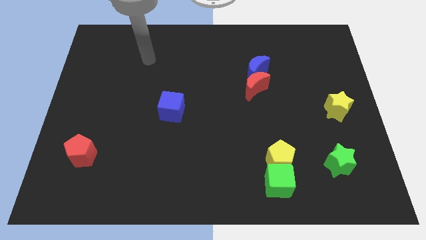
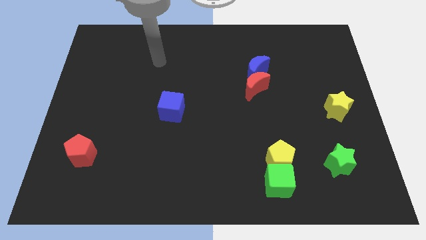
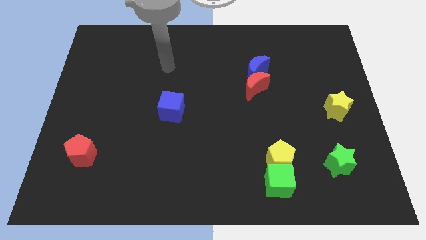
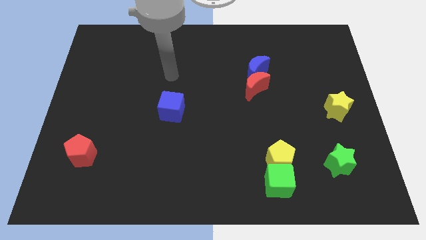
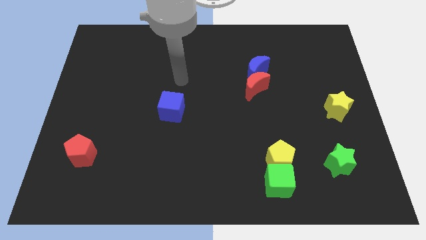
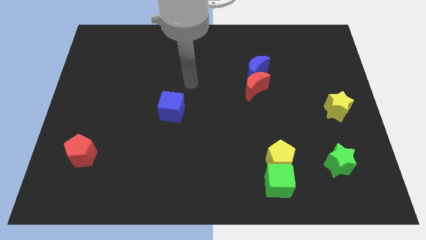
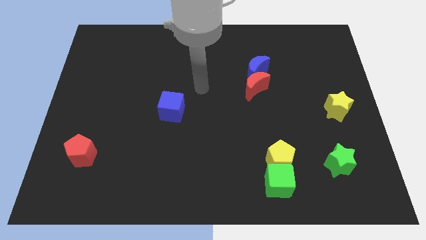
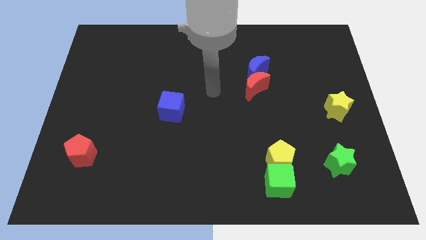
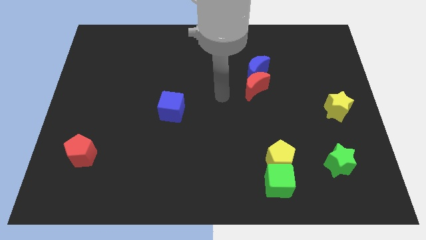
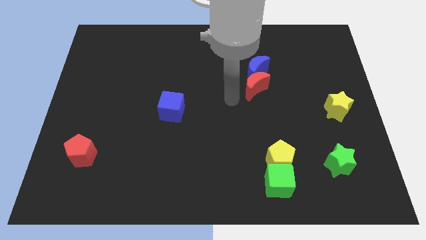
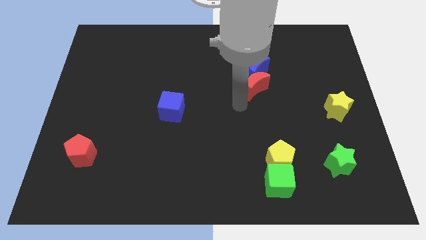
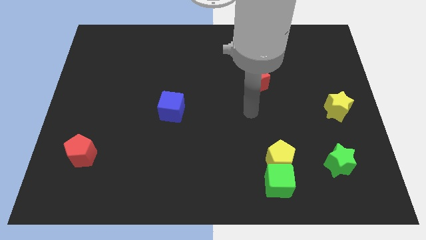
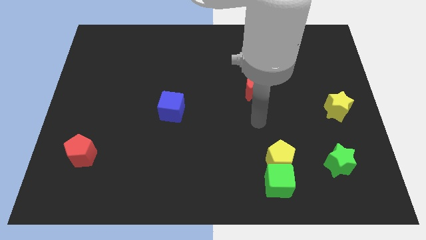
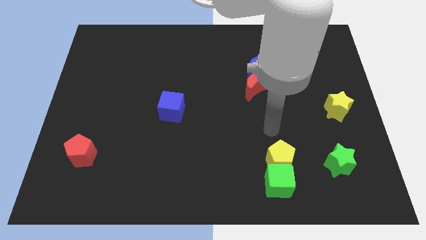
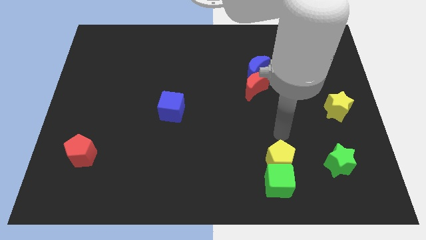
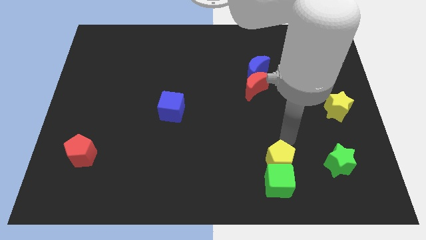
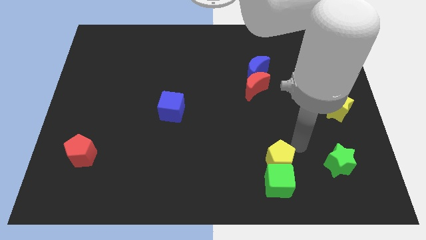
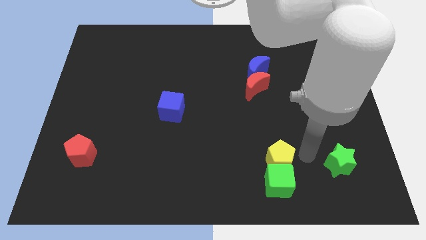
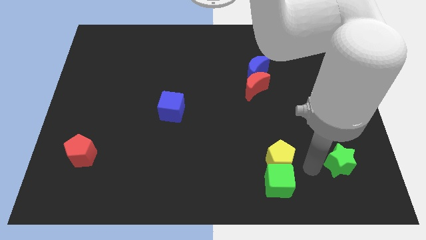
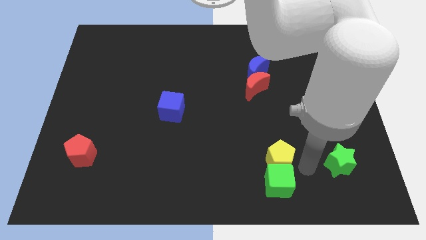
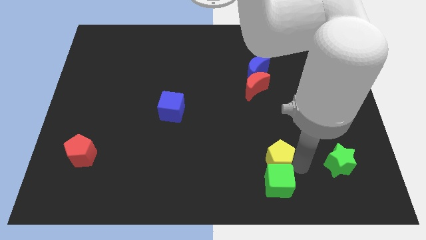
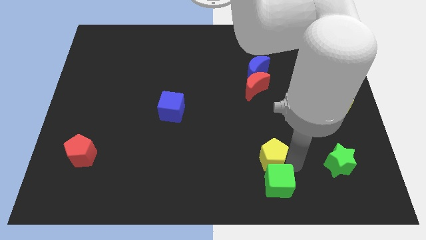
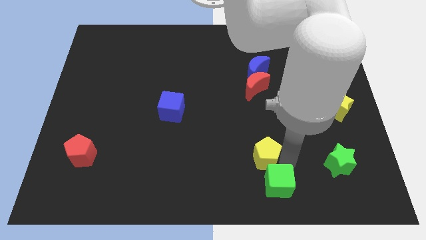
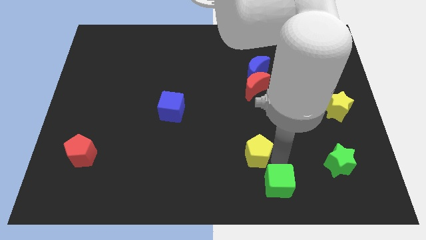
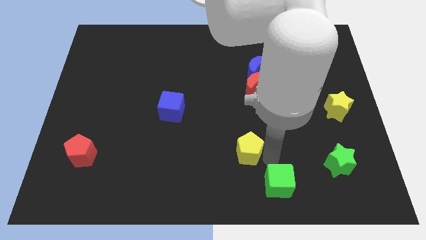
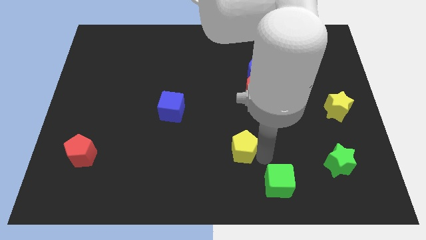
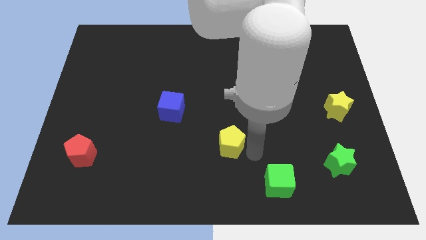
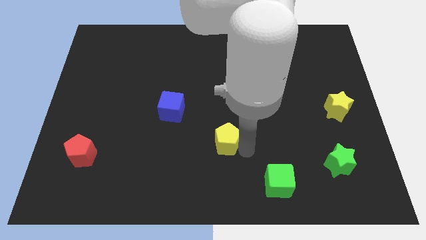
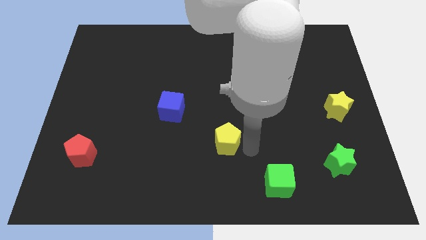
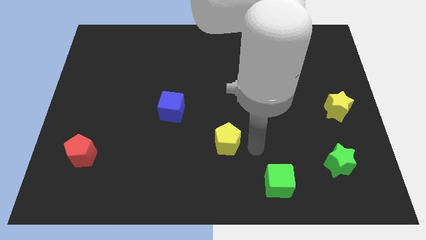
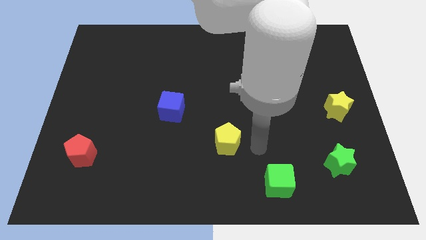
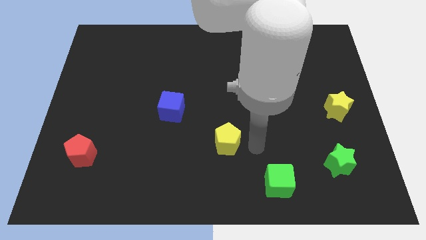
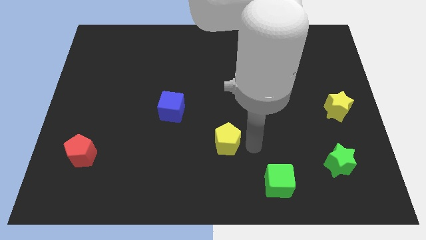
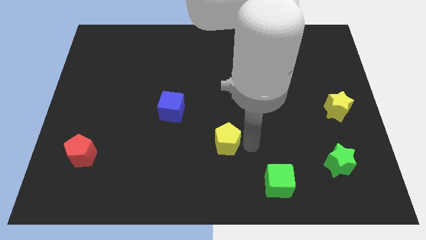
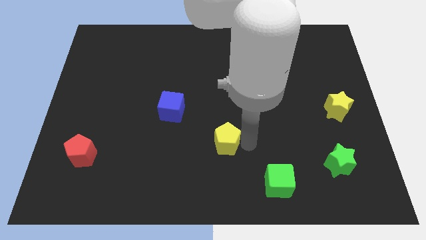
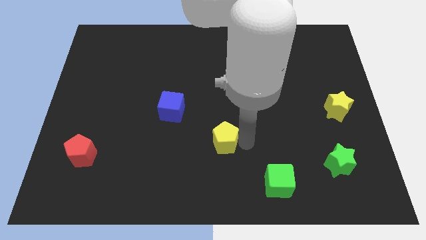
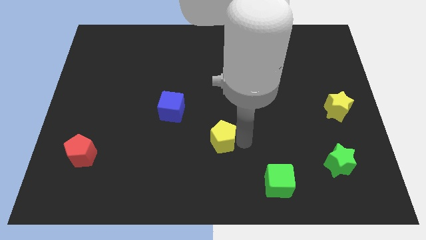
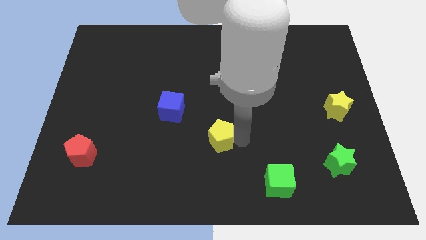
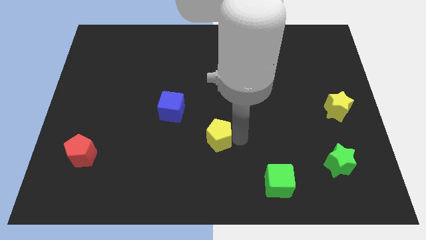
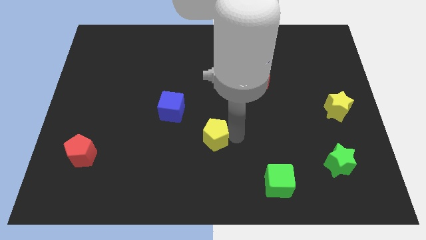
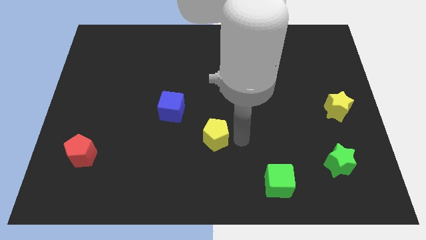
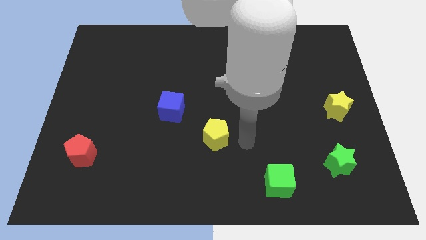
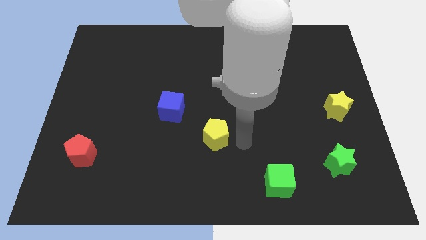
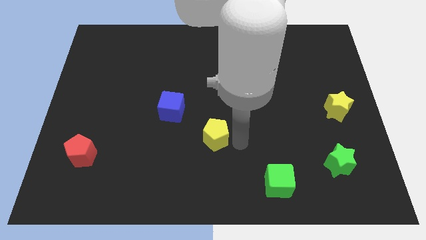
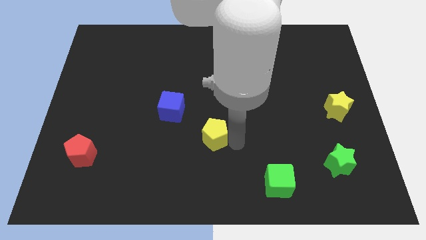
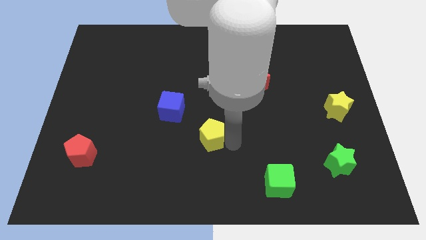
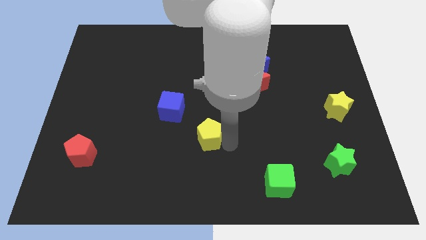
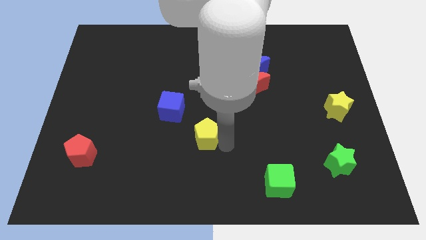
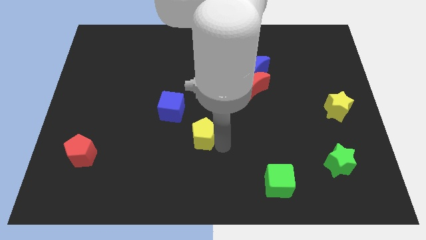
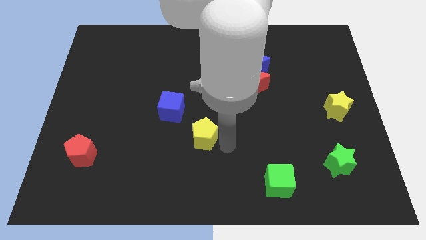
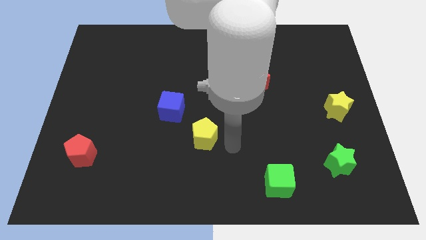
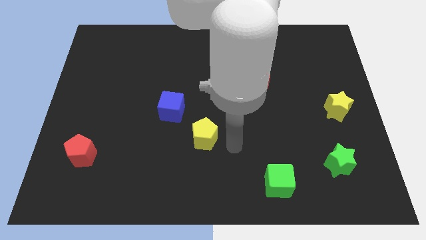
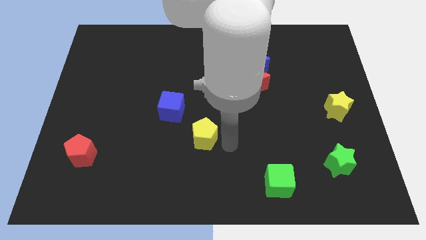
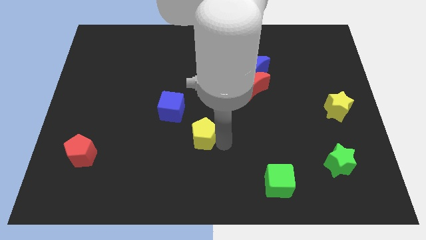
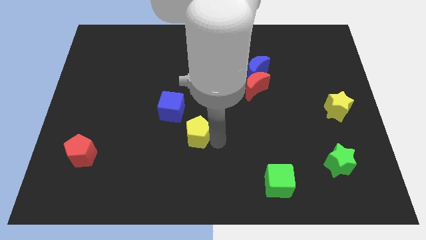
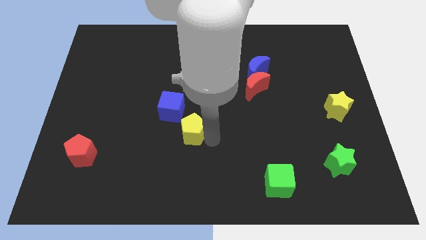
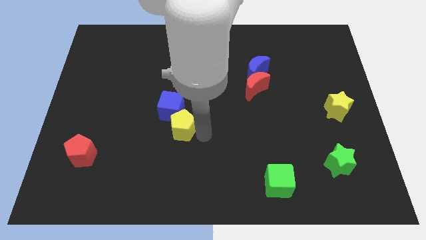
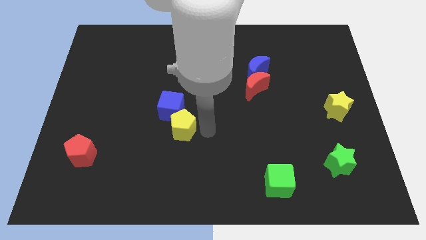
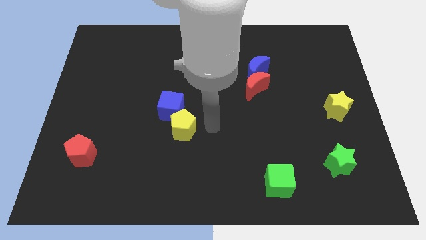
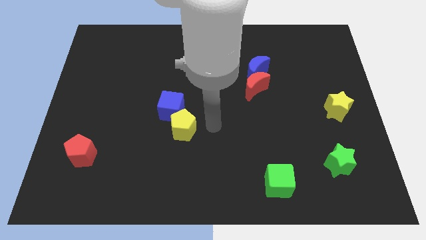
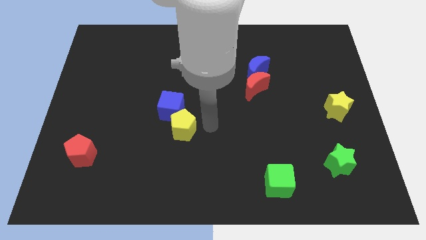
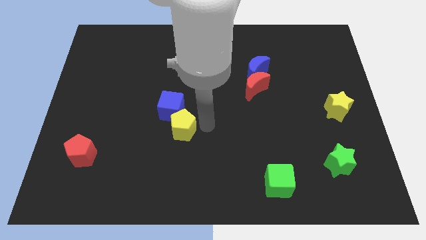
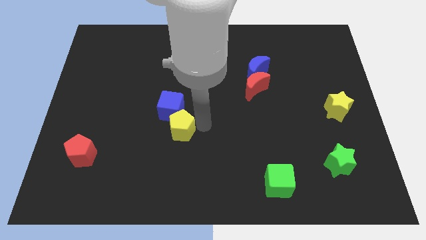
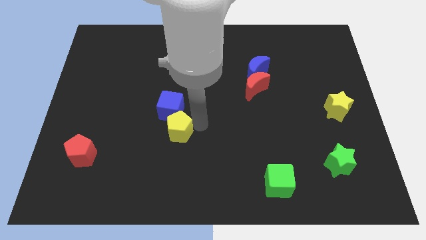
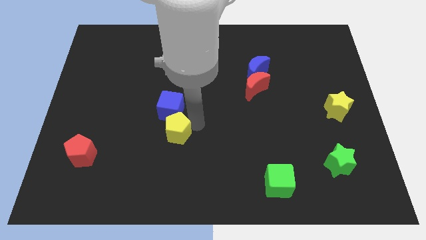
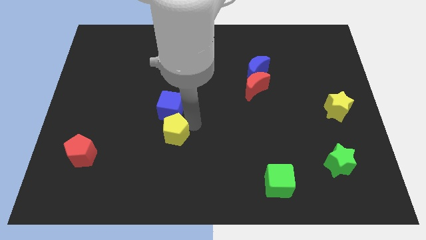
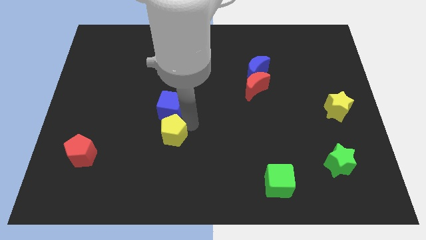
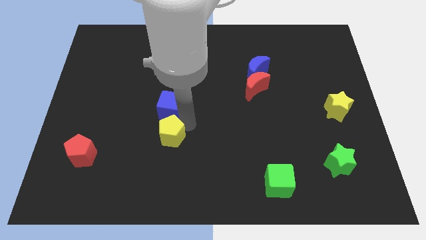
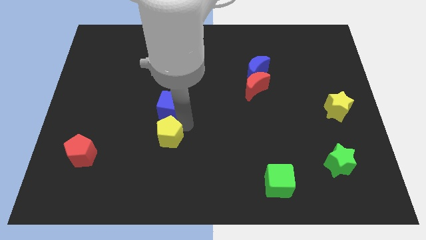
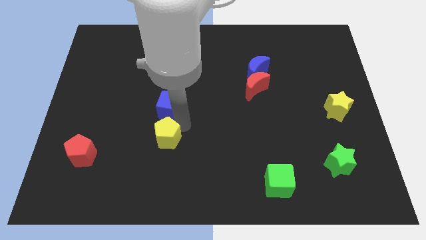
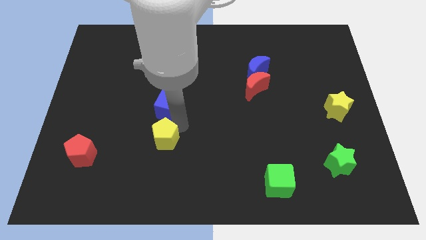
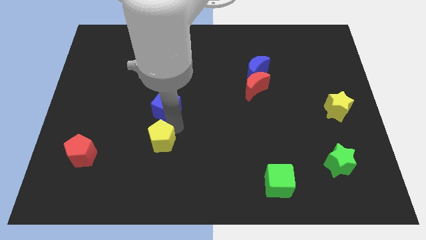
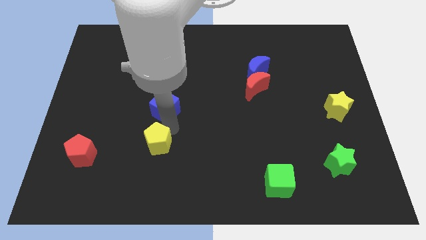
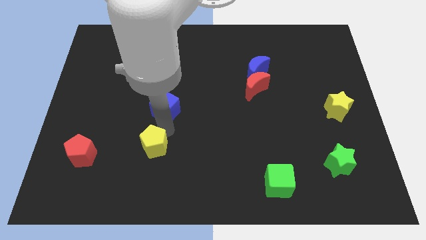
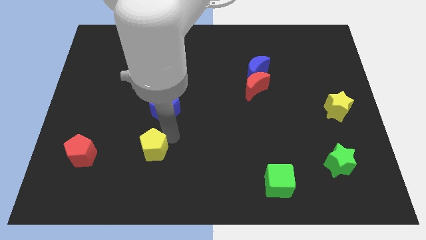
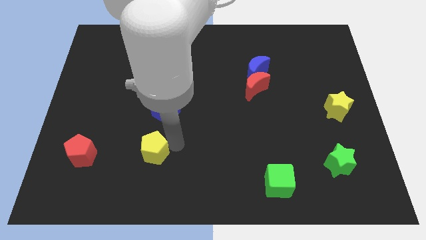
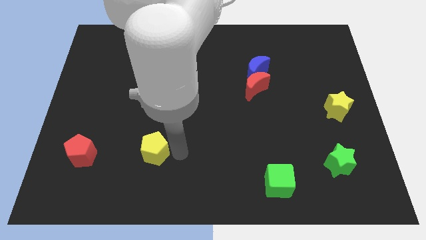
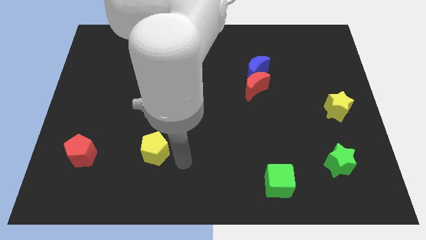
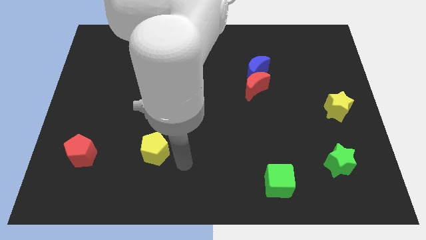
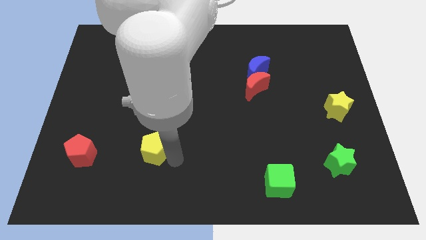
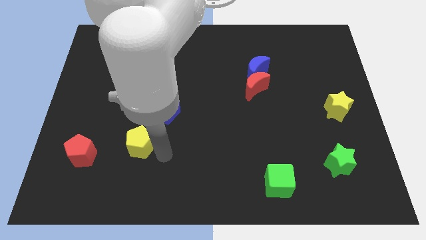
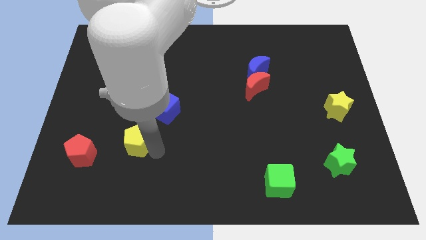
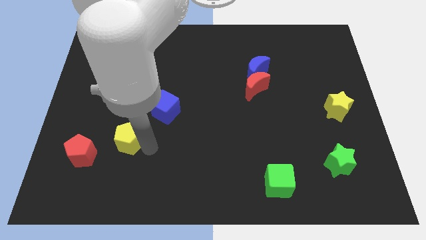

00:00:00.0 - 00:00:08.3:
push the yellow pentagon to the top right side of the red pentagon
